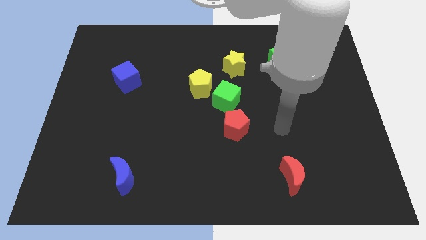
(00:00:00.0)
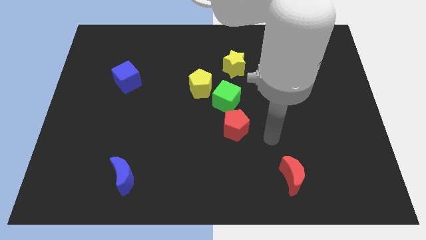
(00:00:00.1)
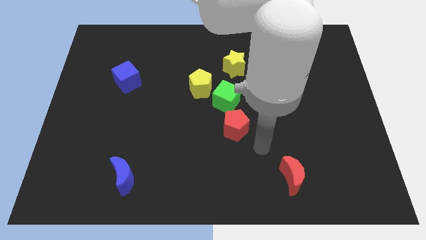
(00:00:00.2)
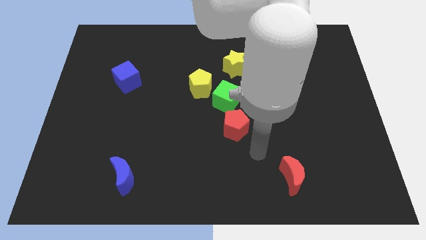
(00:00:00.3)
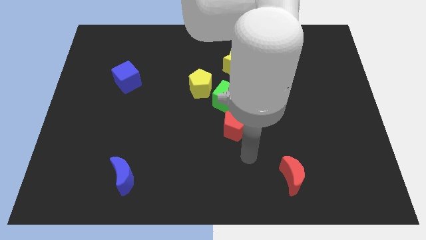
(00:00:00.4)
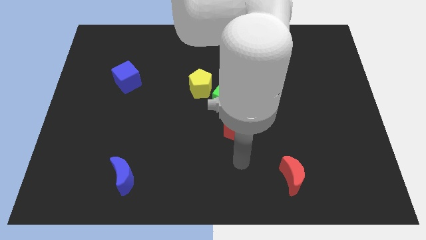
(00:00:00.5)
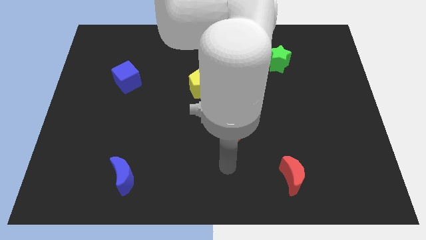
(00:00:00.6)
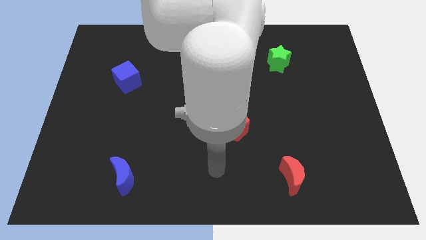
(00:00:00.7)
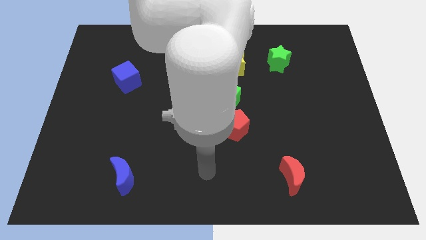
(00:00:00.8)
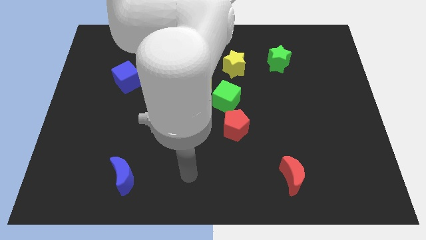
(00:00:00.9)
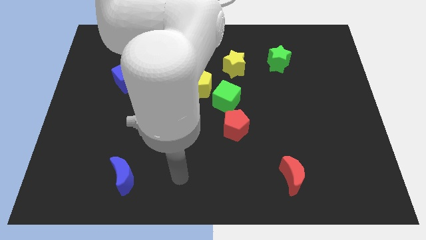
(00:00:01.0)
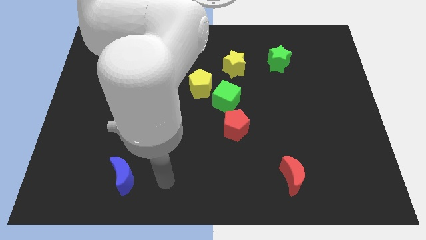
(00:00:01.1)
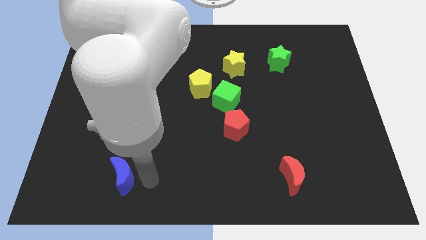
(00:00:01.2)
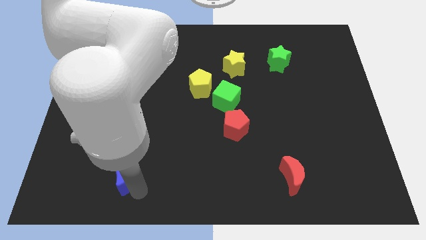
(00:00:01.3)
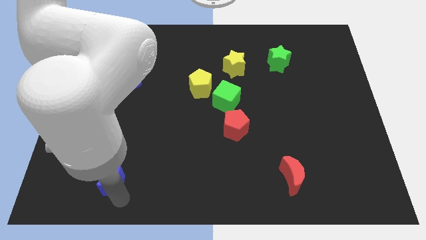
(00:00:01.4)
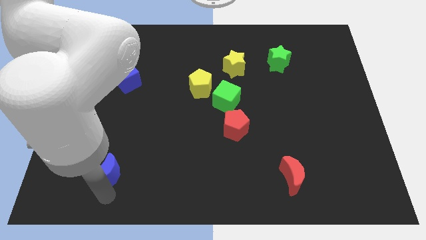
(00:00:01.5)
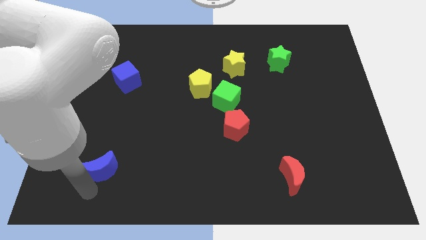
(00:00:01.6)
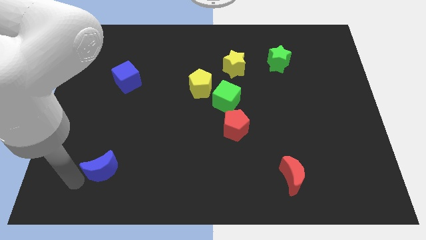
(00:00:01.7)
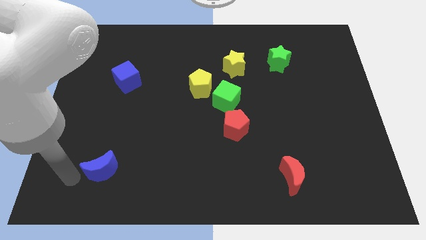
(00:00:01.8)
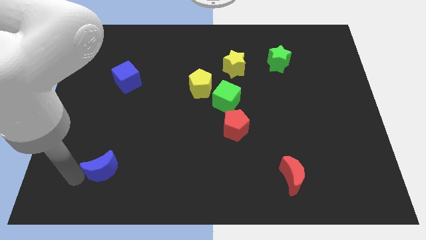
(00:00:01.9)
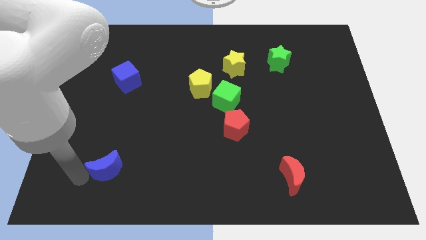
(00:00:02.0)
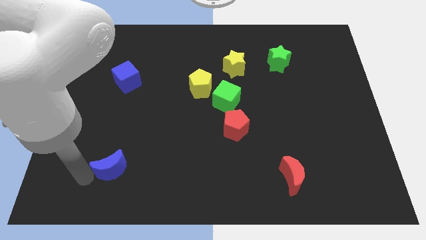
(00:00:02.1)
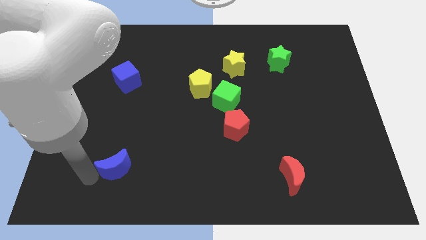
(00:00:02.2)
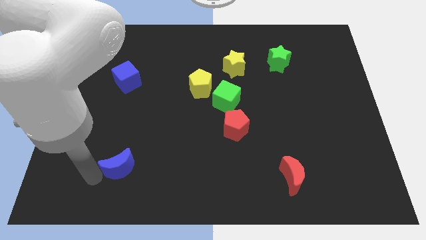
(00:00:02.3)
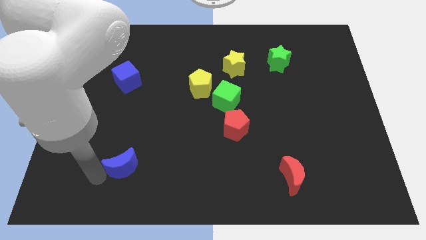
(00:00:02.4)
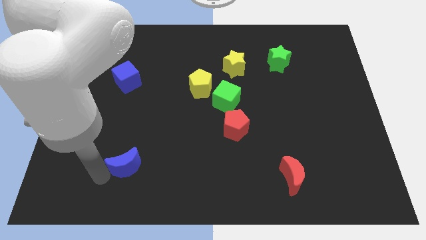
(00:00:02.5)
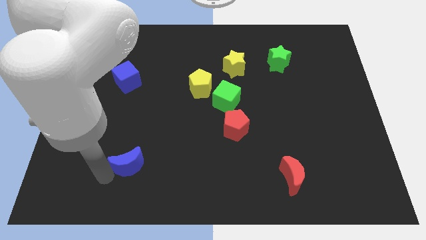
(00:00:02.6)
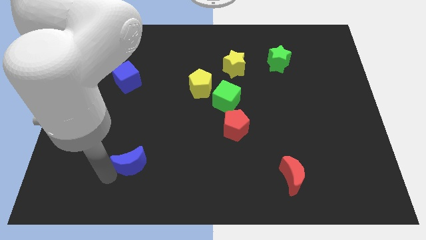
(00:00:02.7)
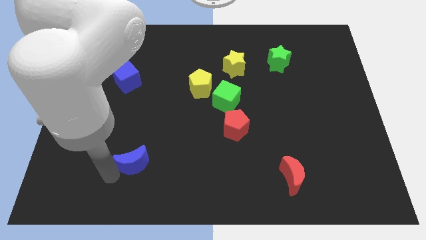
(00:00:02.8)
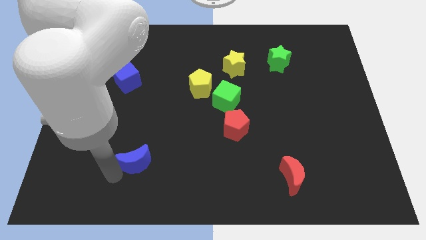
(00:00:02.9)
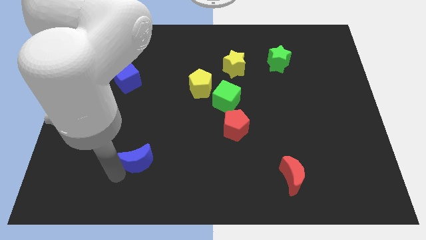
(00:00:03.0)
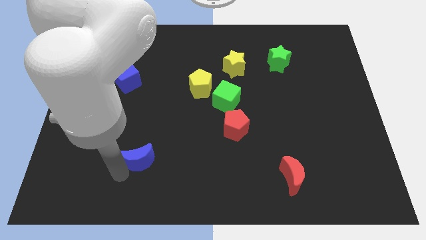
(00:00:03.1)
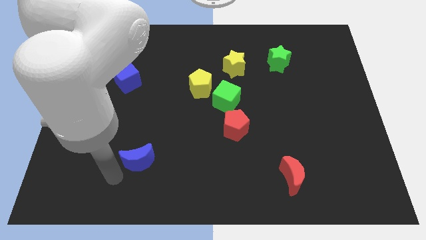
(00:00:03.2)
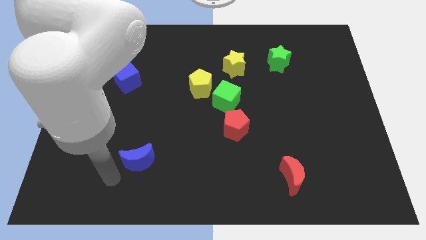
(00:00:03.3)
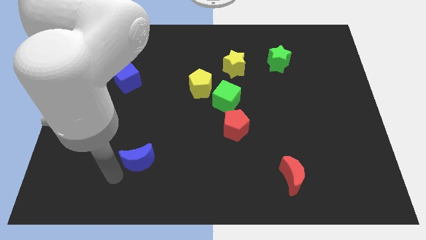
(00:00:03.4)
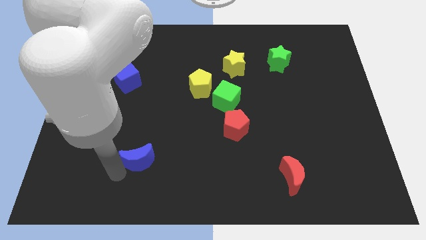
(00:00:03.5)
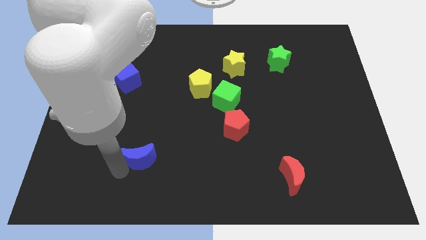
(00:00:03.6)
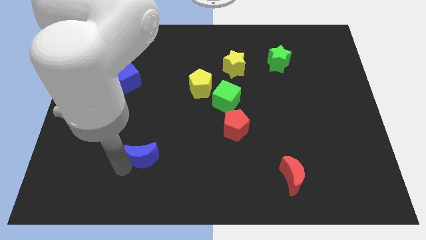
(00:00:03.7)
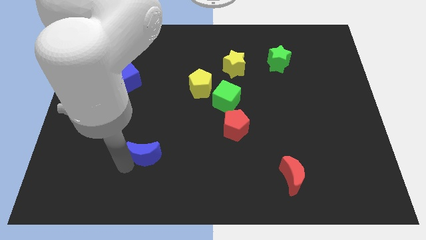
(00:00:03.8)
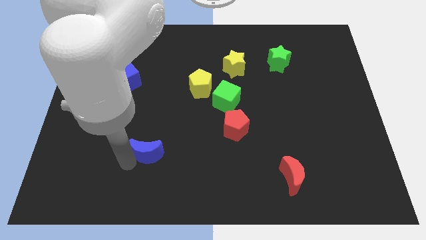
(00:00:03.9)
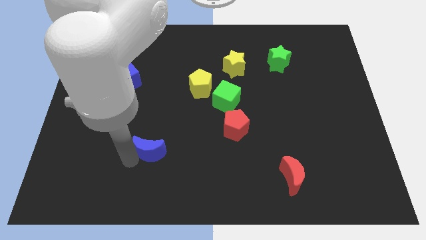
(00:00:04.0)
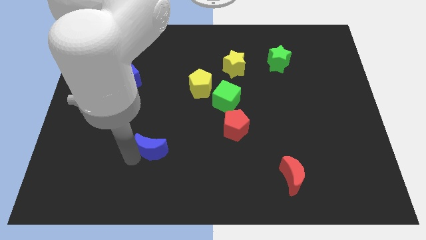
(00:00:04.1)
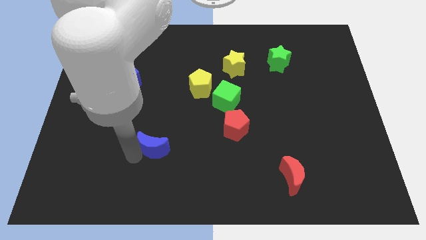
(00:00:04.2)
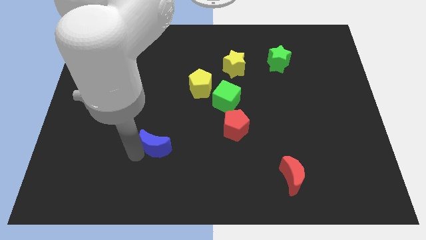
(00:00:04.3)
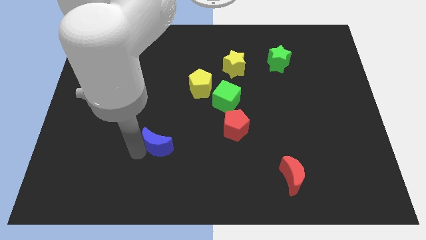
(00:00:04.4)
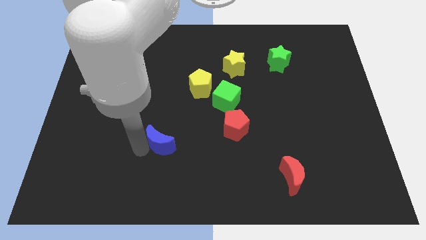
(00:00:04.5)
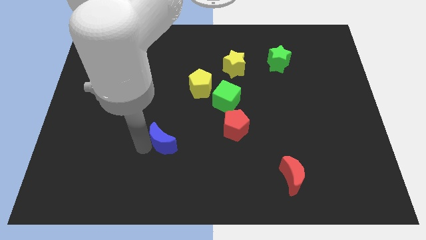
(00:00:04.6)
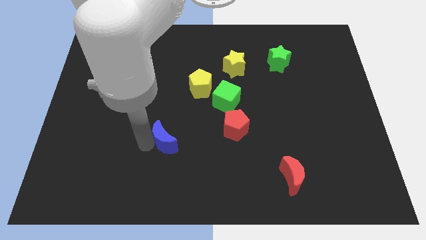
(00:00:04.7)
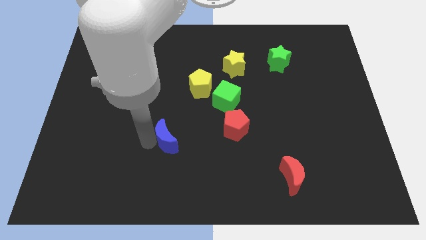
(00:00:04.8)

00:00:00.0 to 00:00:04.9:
push the blue moon just left of the red pentagon

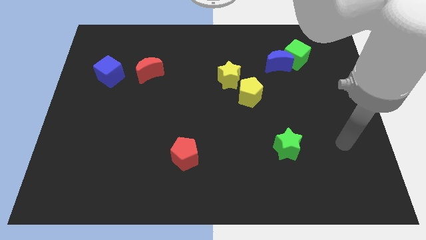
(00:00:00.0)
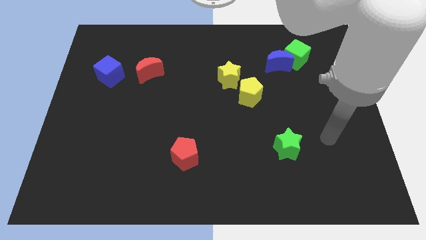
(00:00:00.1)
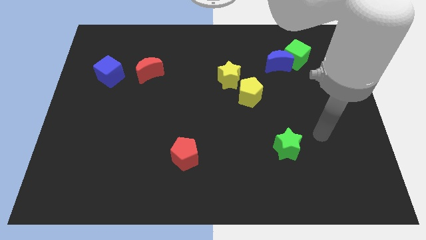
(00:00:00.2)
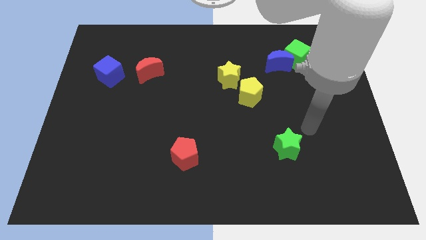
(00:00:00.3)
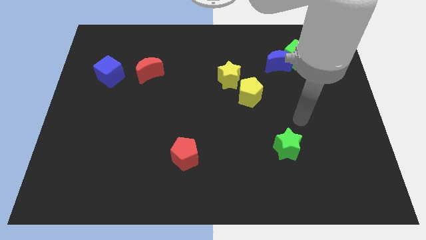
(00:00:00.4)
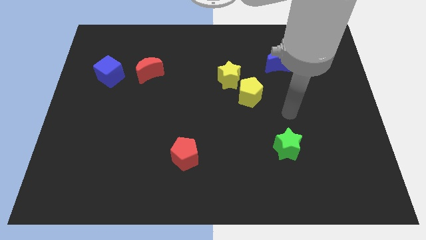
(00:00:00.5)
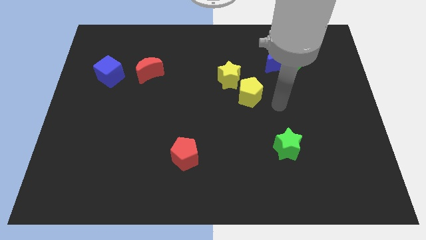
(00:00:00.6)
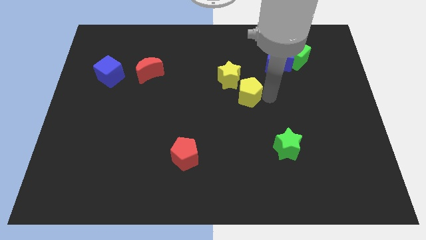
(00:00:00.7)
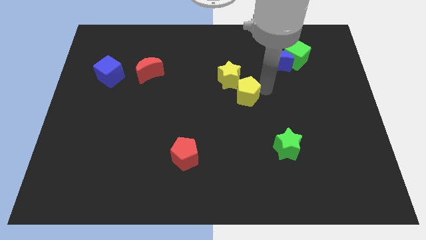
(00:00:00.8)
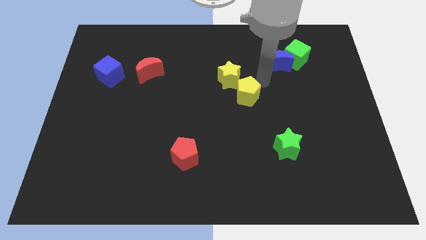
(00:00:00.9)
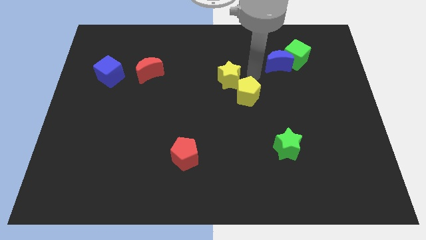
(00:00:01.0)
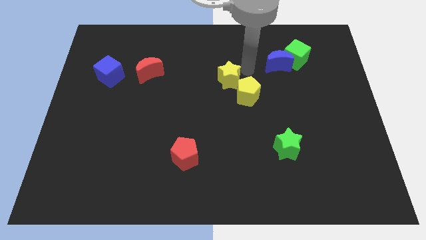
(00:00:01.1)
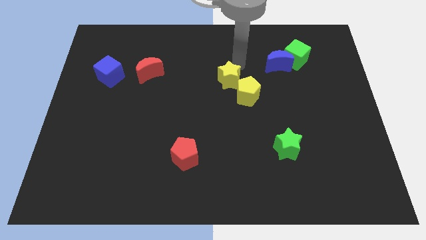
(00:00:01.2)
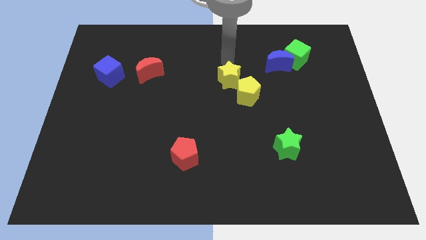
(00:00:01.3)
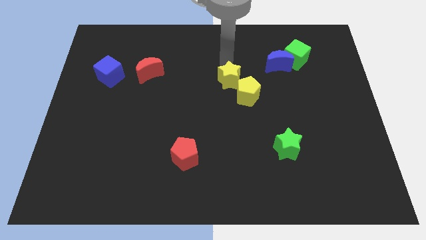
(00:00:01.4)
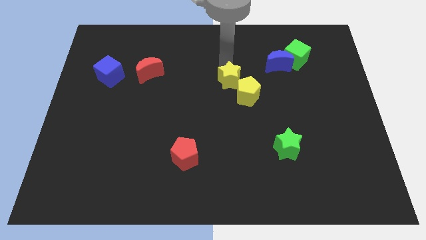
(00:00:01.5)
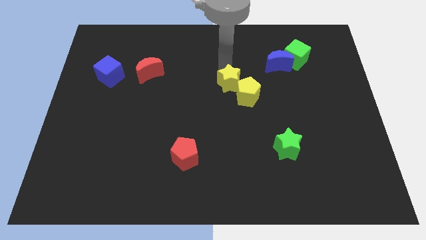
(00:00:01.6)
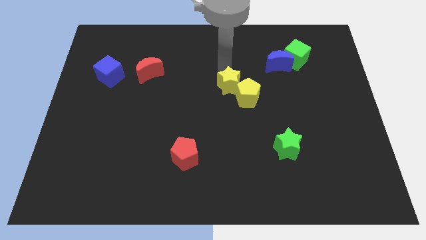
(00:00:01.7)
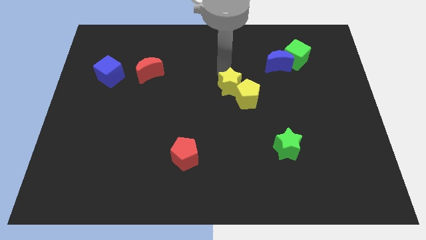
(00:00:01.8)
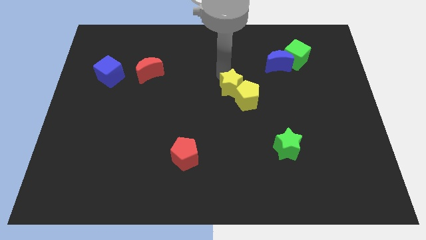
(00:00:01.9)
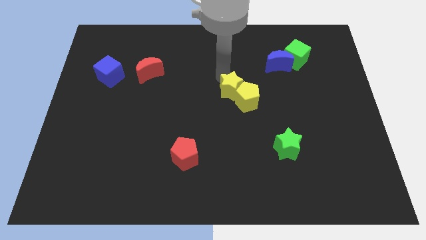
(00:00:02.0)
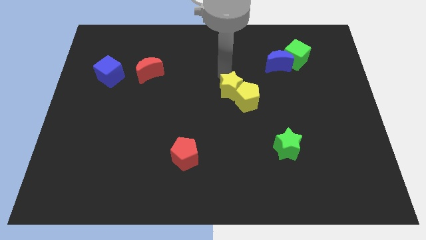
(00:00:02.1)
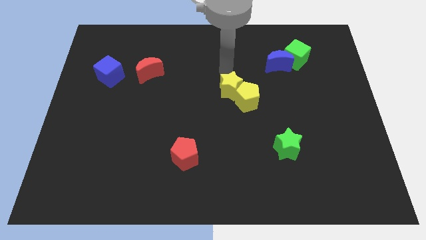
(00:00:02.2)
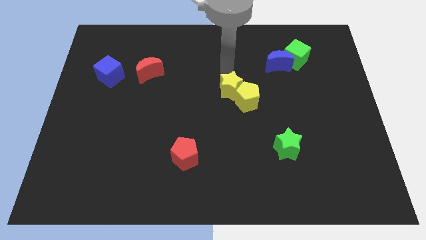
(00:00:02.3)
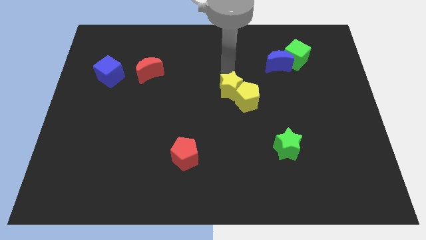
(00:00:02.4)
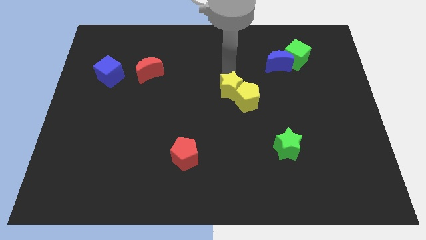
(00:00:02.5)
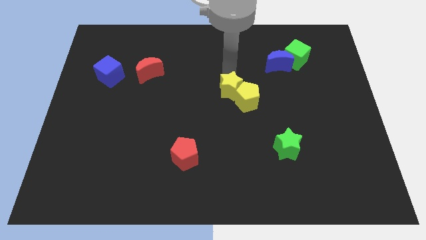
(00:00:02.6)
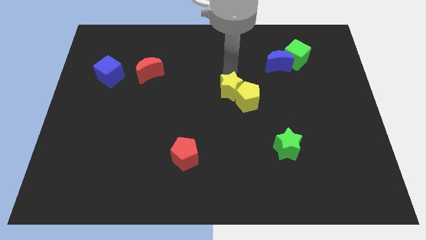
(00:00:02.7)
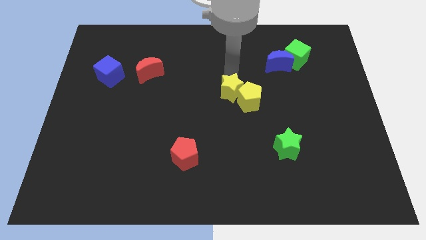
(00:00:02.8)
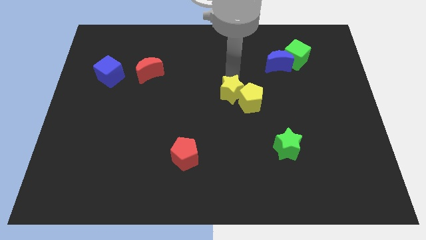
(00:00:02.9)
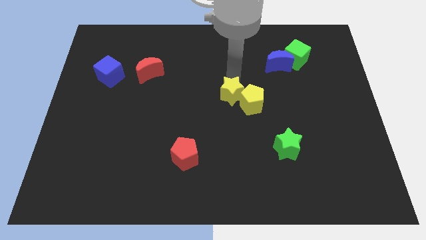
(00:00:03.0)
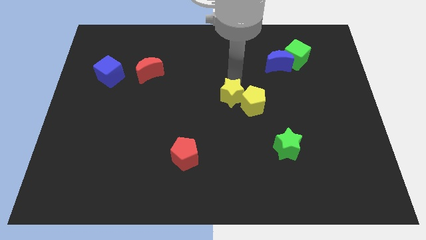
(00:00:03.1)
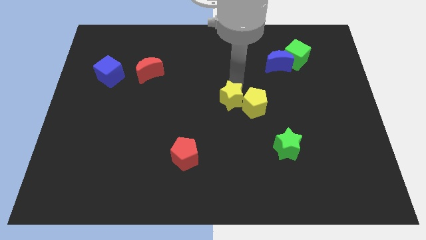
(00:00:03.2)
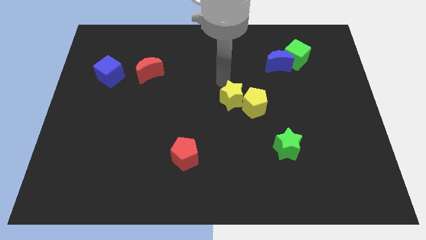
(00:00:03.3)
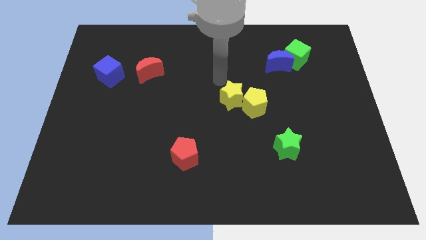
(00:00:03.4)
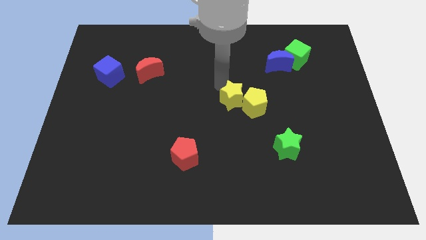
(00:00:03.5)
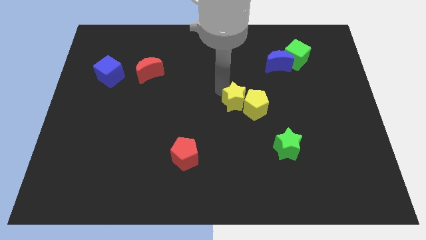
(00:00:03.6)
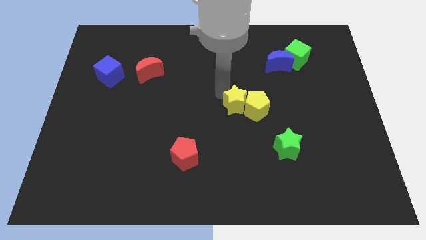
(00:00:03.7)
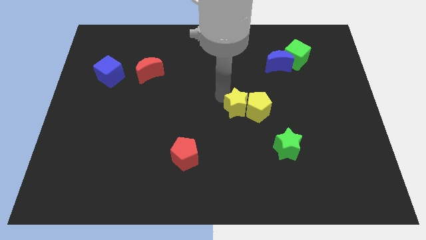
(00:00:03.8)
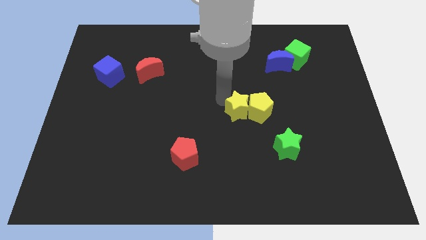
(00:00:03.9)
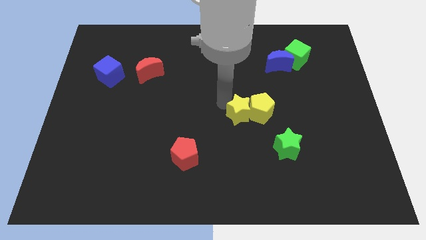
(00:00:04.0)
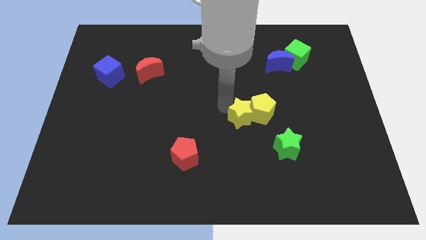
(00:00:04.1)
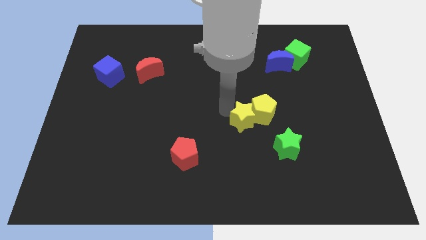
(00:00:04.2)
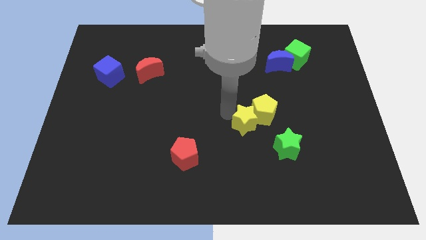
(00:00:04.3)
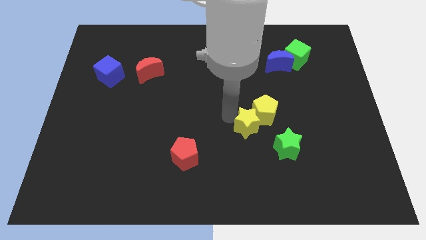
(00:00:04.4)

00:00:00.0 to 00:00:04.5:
put the yellow star to the bottom side of the yellow pentagon
